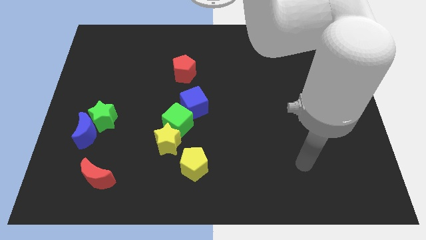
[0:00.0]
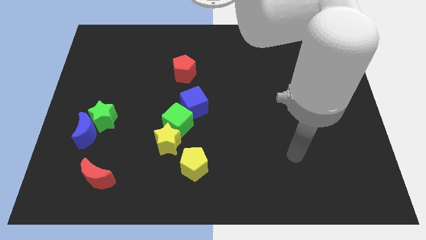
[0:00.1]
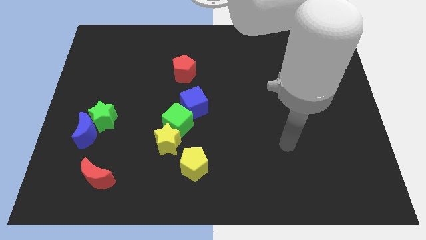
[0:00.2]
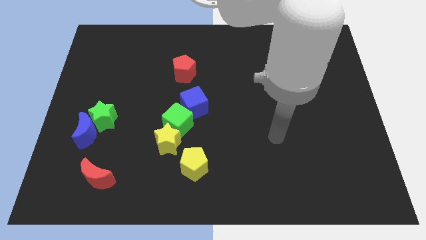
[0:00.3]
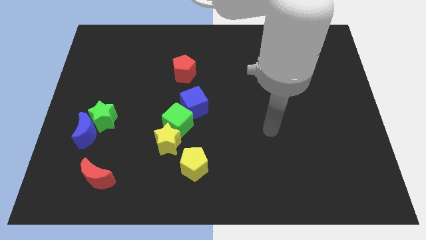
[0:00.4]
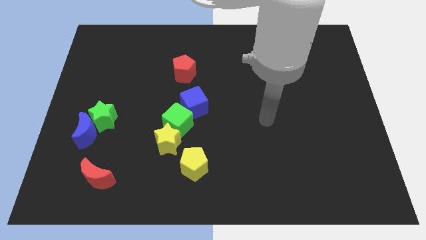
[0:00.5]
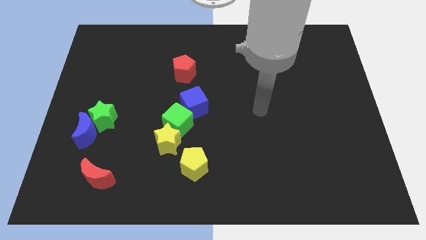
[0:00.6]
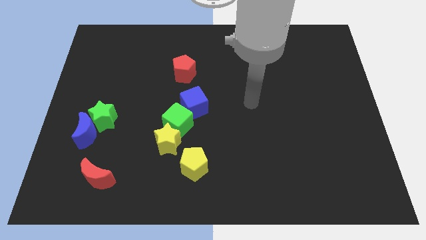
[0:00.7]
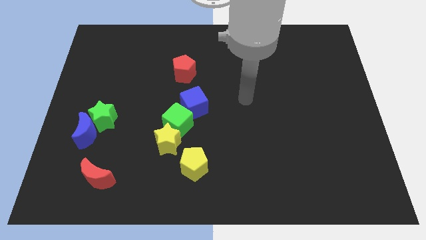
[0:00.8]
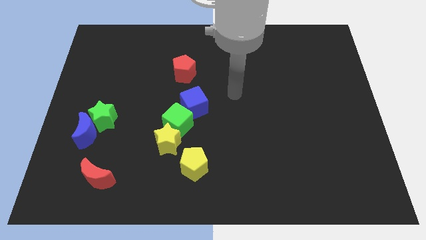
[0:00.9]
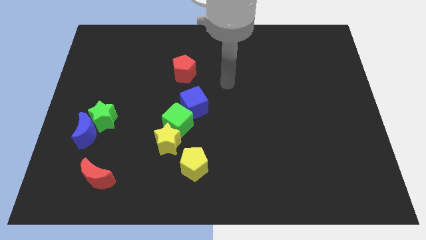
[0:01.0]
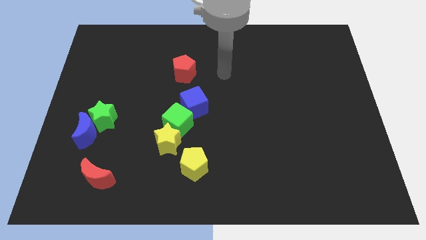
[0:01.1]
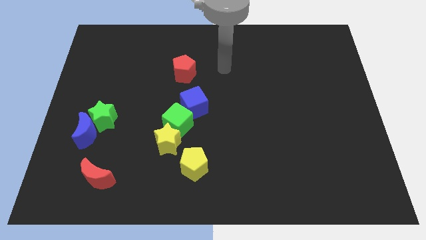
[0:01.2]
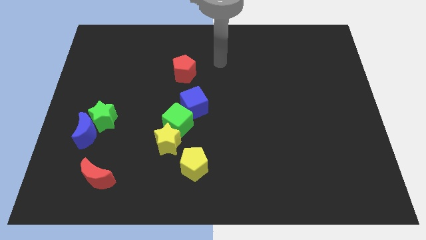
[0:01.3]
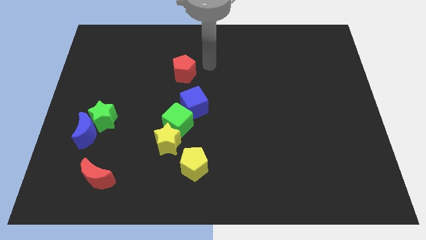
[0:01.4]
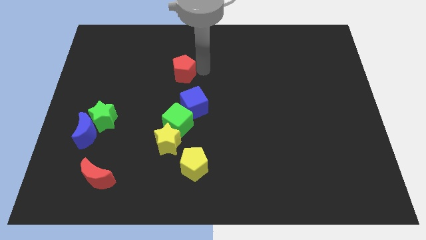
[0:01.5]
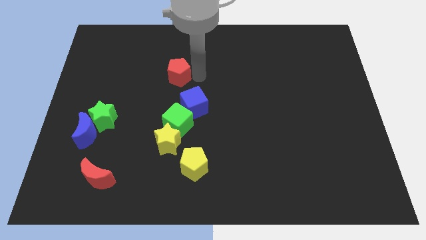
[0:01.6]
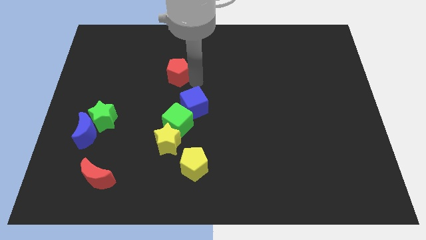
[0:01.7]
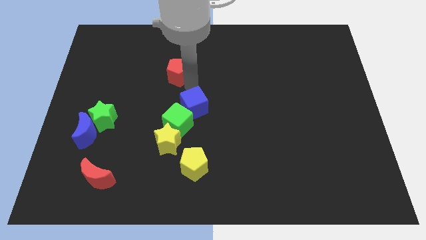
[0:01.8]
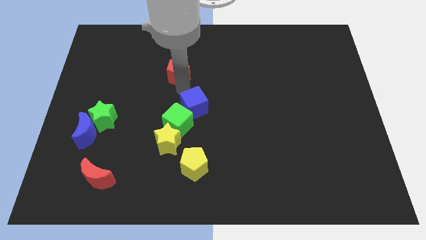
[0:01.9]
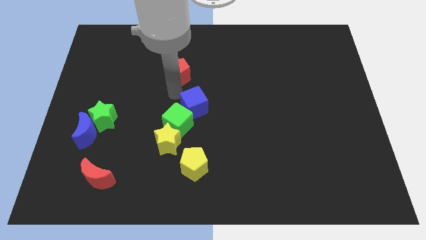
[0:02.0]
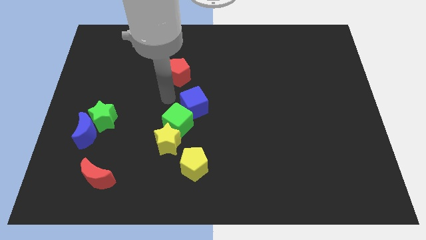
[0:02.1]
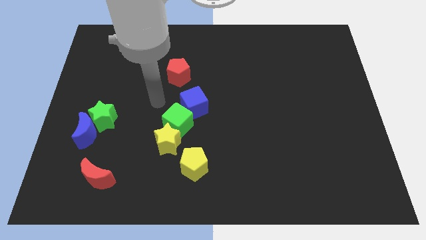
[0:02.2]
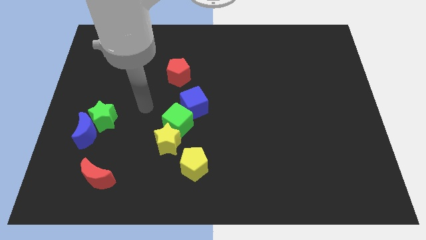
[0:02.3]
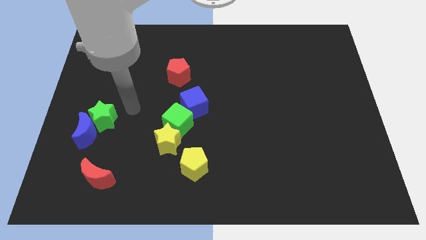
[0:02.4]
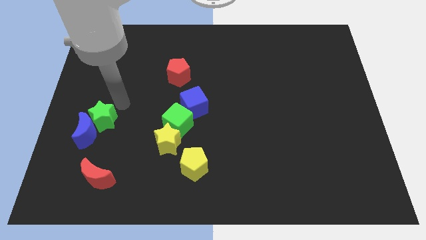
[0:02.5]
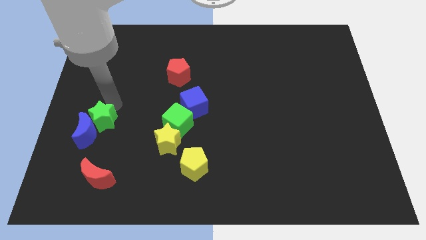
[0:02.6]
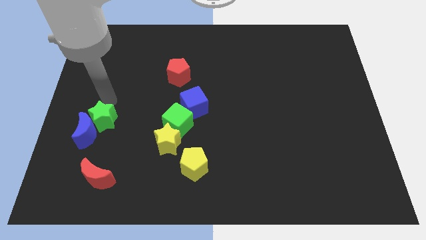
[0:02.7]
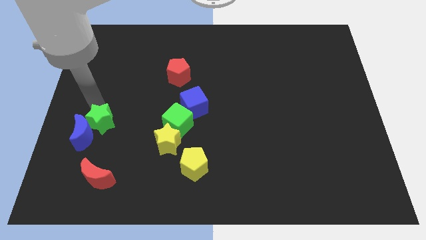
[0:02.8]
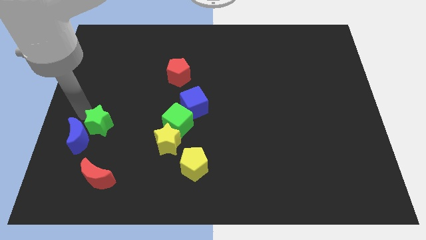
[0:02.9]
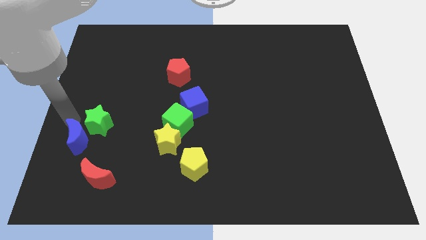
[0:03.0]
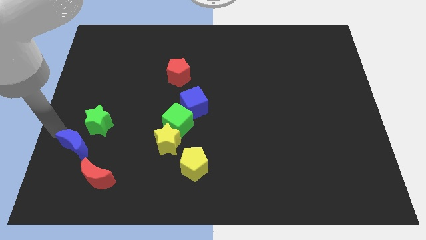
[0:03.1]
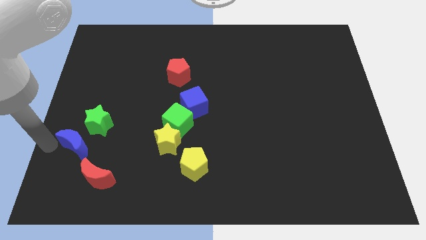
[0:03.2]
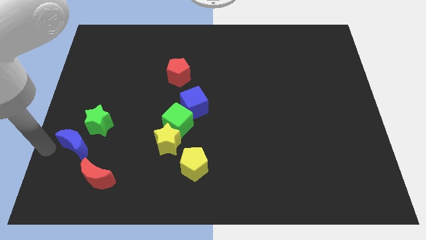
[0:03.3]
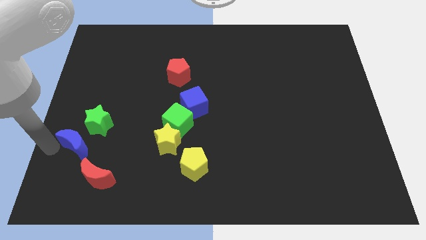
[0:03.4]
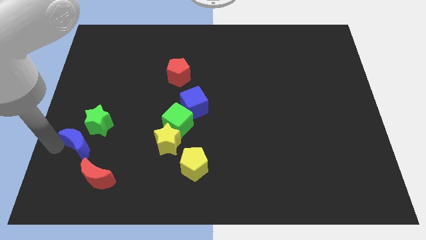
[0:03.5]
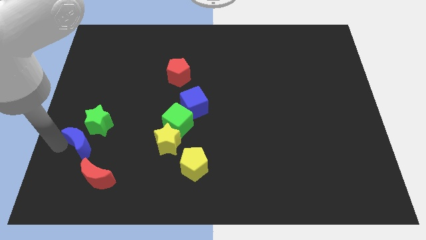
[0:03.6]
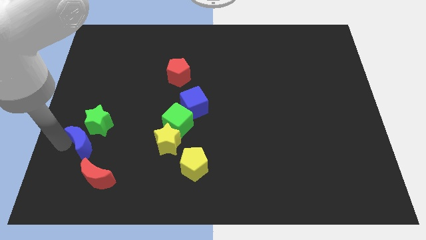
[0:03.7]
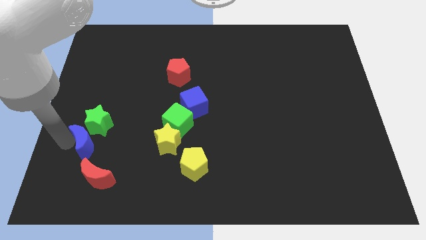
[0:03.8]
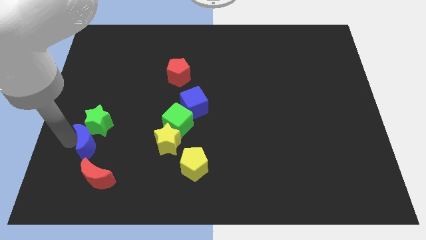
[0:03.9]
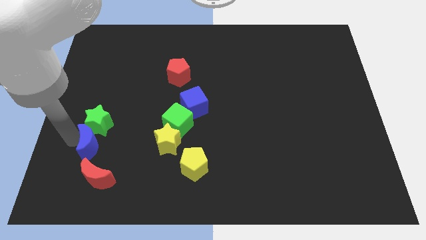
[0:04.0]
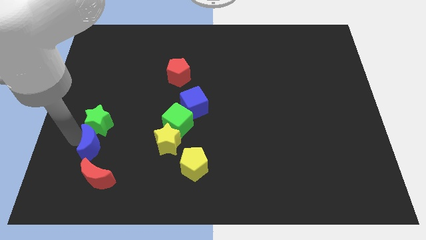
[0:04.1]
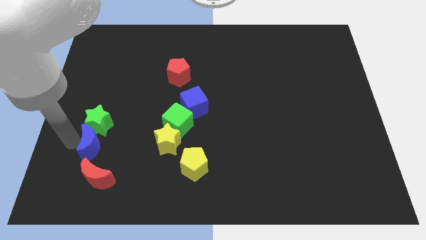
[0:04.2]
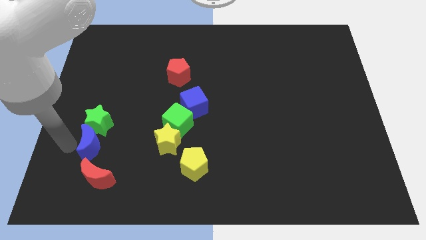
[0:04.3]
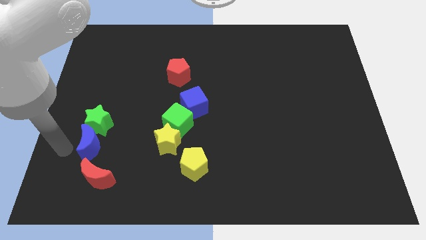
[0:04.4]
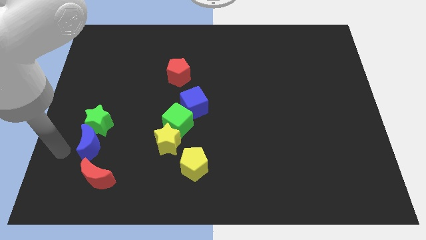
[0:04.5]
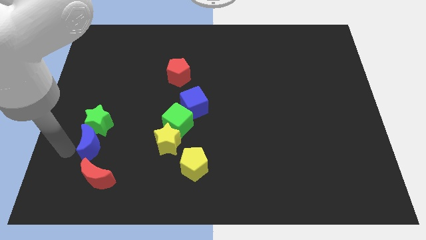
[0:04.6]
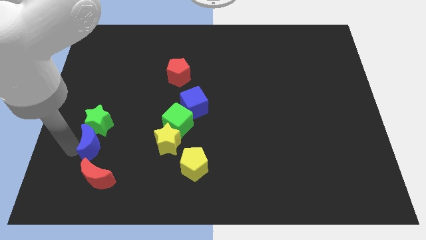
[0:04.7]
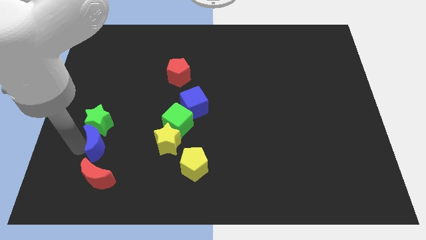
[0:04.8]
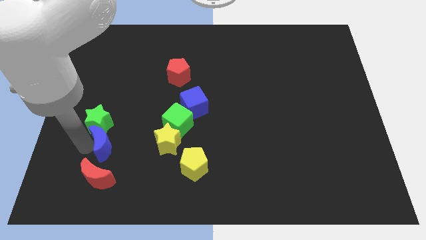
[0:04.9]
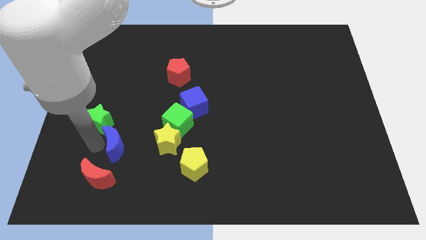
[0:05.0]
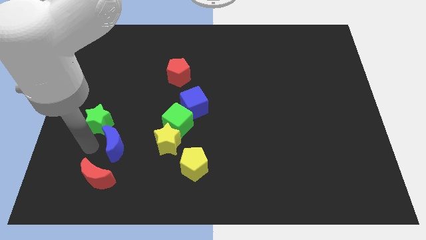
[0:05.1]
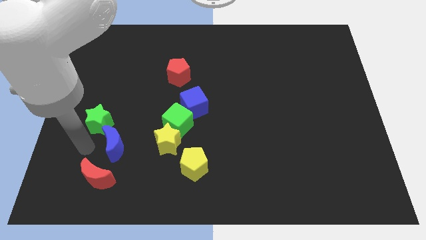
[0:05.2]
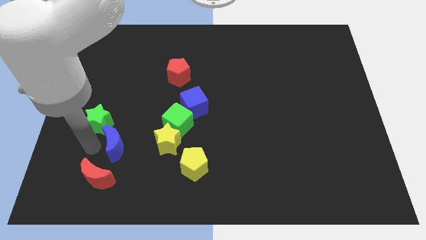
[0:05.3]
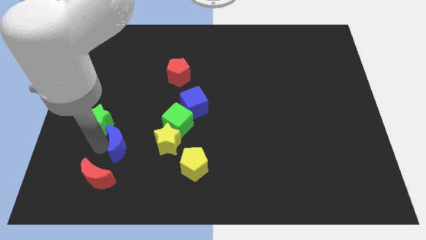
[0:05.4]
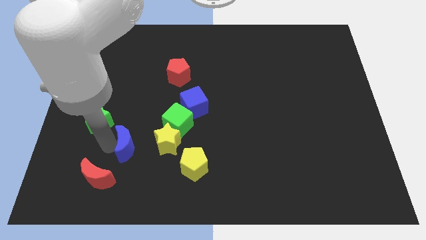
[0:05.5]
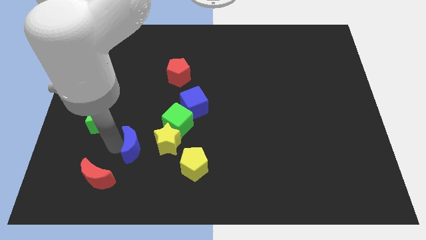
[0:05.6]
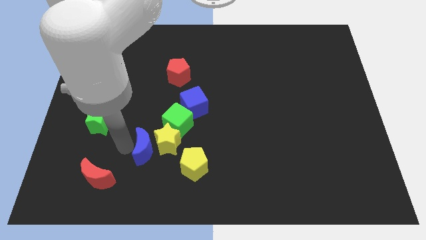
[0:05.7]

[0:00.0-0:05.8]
slide the blue moon close to the yellow star
